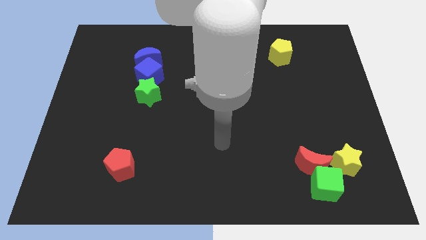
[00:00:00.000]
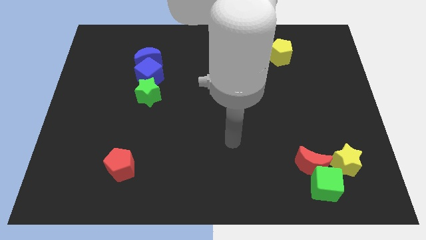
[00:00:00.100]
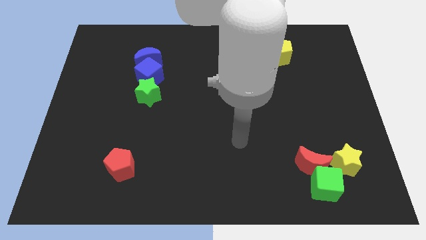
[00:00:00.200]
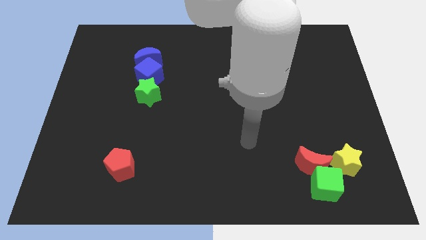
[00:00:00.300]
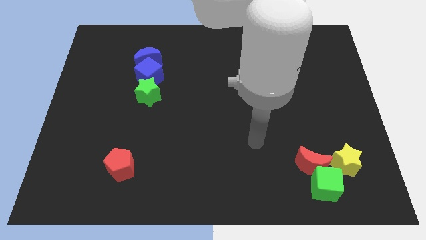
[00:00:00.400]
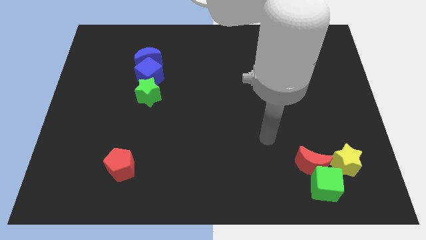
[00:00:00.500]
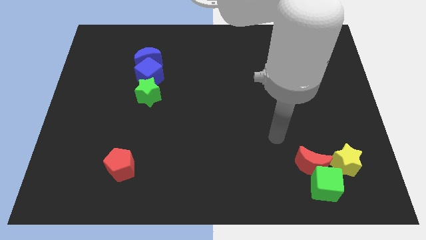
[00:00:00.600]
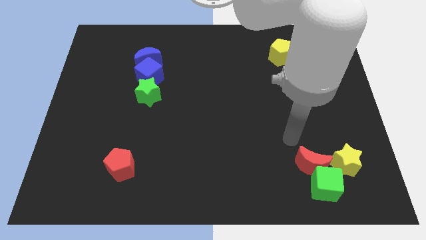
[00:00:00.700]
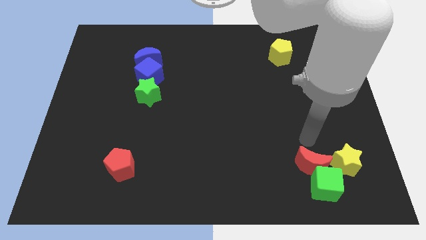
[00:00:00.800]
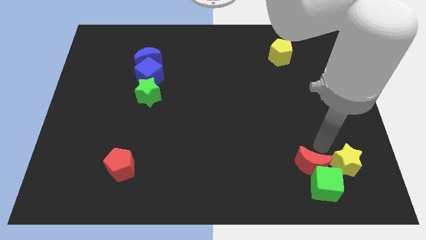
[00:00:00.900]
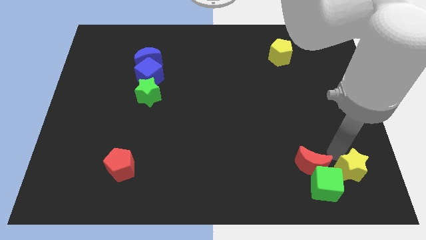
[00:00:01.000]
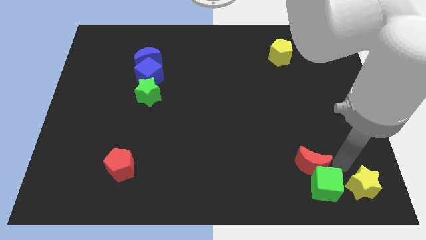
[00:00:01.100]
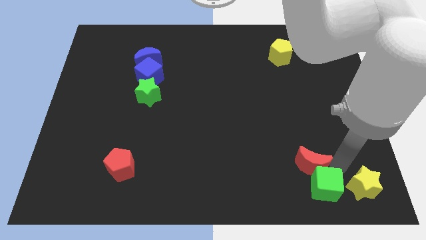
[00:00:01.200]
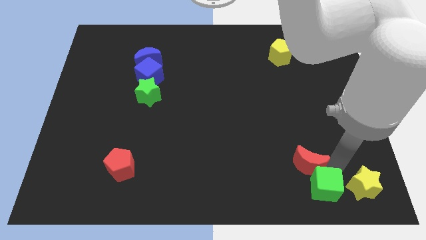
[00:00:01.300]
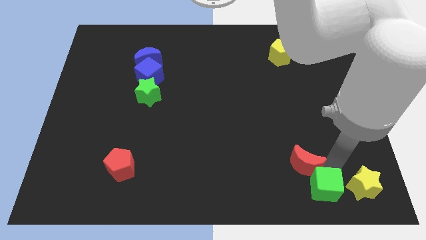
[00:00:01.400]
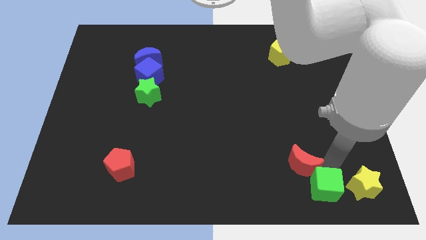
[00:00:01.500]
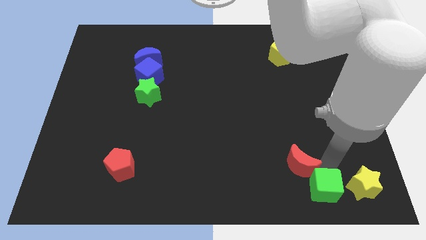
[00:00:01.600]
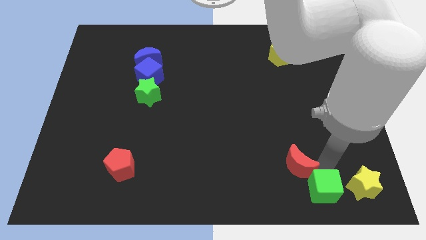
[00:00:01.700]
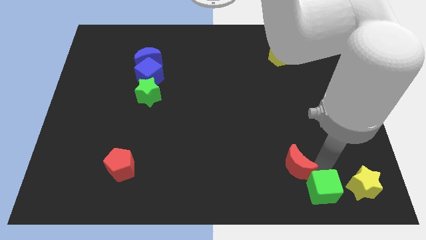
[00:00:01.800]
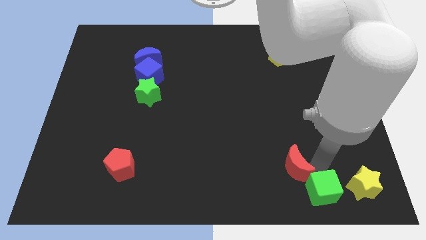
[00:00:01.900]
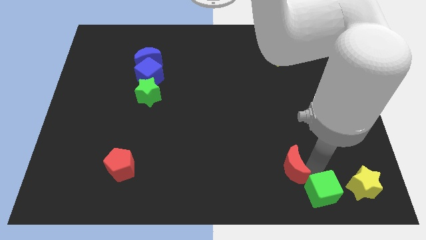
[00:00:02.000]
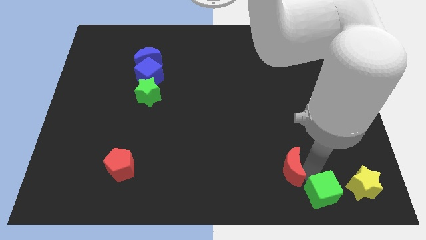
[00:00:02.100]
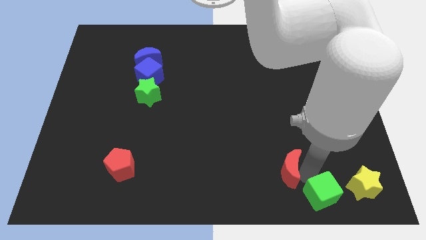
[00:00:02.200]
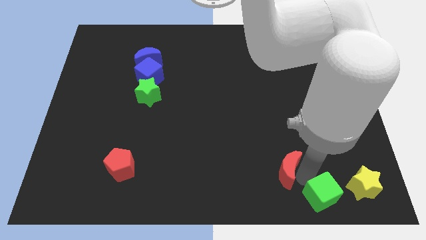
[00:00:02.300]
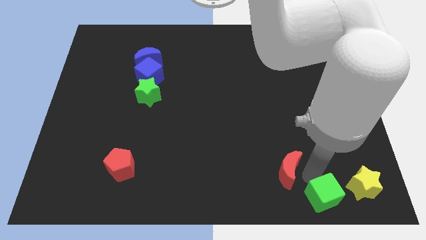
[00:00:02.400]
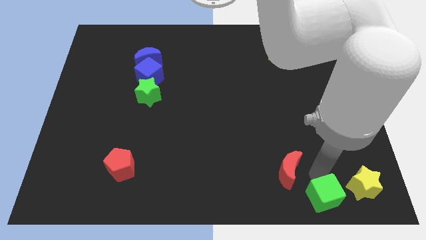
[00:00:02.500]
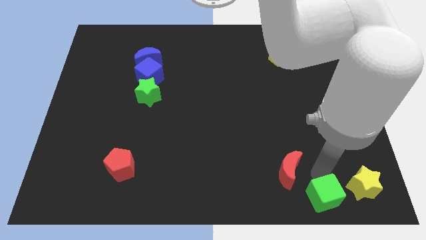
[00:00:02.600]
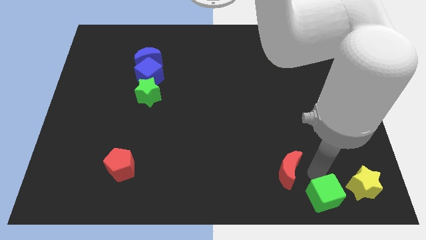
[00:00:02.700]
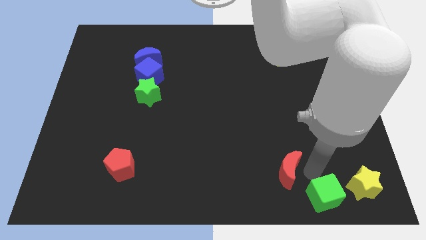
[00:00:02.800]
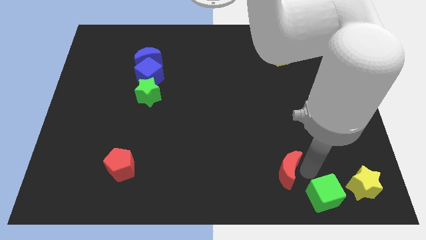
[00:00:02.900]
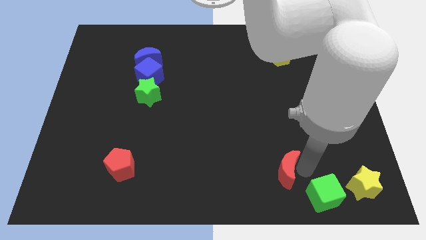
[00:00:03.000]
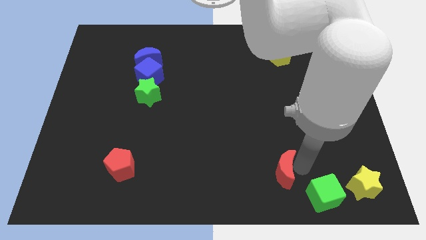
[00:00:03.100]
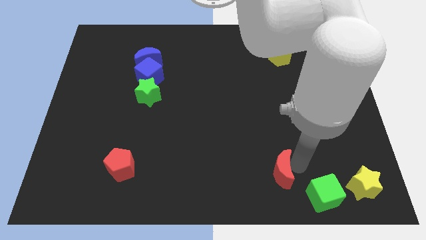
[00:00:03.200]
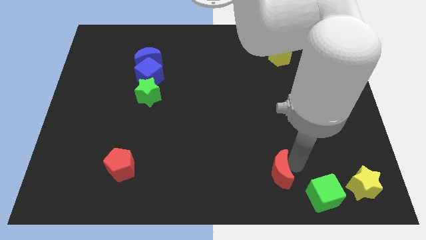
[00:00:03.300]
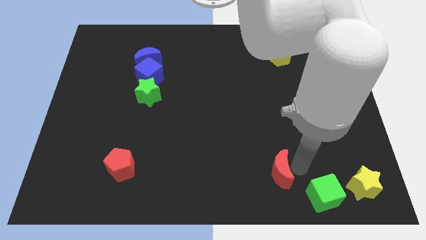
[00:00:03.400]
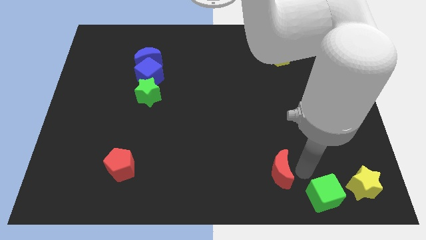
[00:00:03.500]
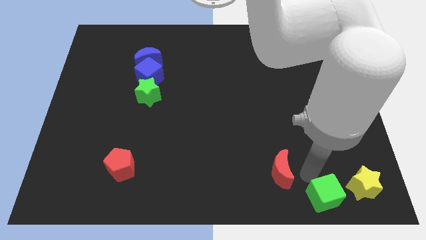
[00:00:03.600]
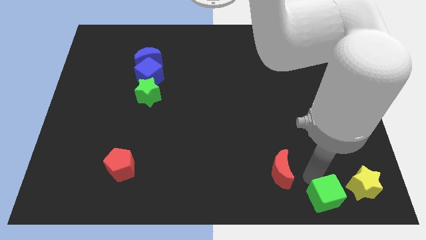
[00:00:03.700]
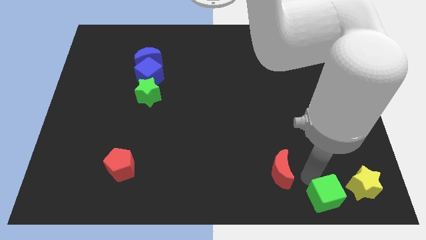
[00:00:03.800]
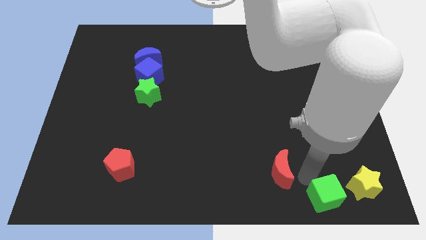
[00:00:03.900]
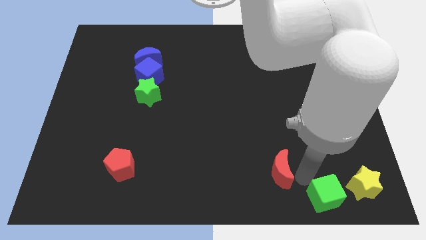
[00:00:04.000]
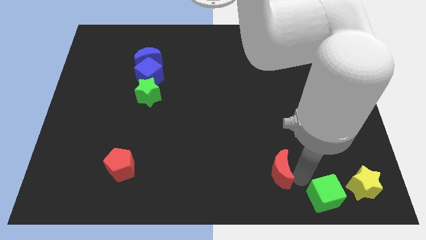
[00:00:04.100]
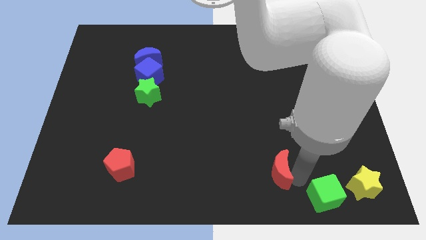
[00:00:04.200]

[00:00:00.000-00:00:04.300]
slide the red moon somewhat left

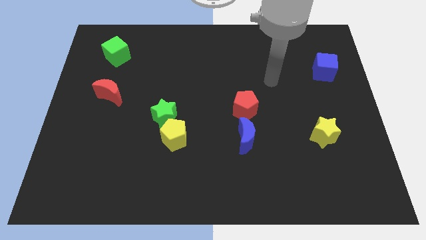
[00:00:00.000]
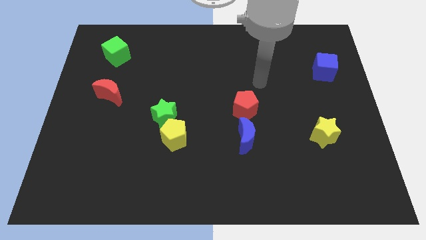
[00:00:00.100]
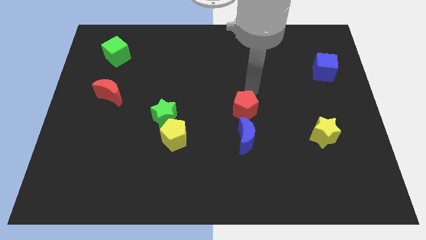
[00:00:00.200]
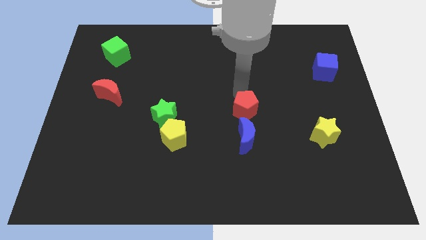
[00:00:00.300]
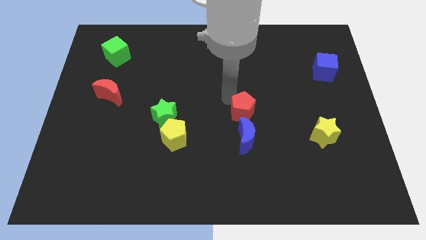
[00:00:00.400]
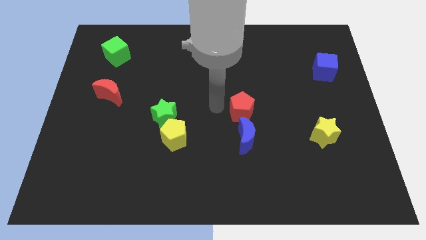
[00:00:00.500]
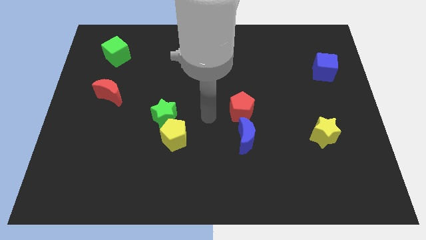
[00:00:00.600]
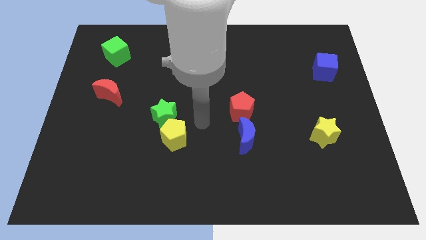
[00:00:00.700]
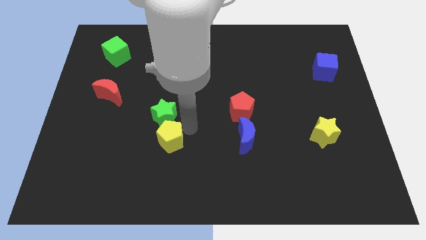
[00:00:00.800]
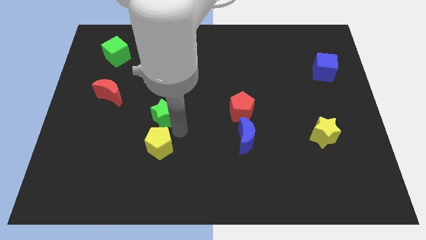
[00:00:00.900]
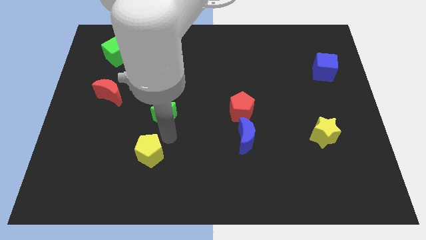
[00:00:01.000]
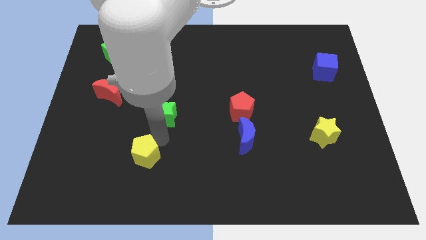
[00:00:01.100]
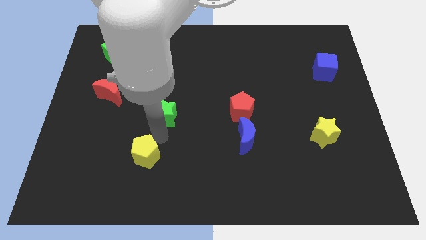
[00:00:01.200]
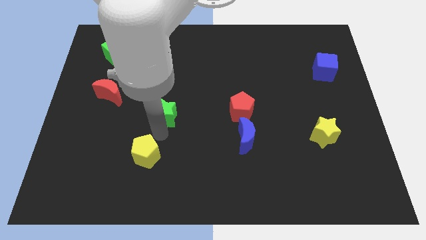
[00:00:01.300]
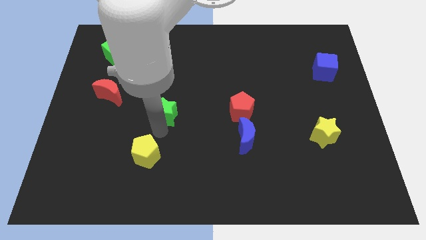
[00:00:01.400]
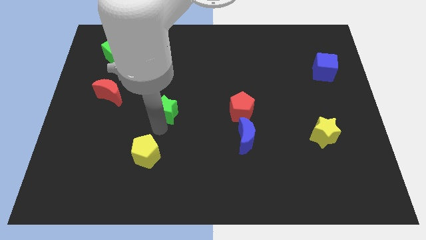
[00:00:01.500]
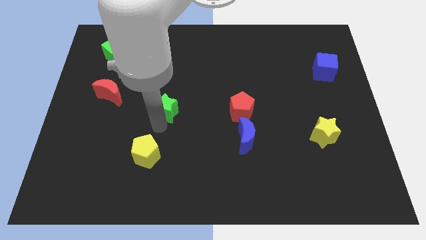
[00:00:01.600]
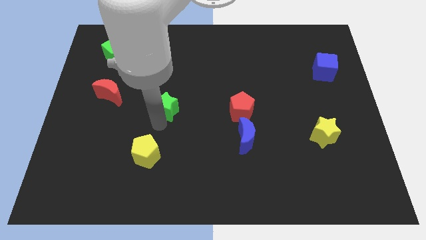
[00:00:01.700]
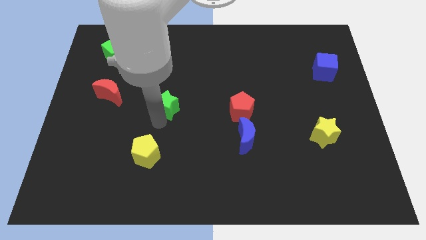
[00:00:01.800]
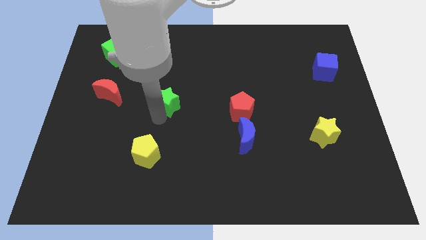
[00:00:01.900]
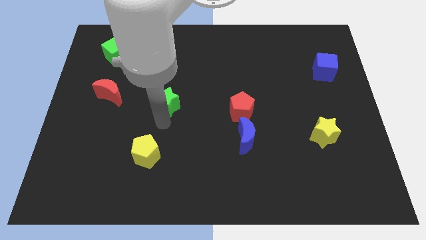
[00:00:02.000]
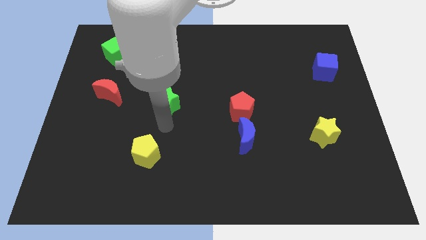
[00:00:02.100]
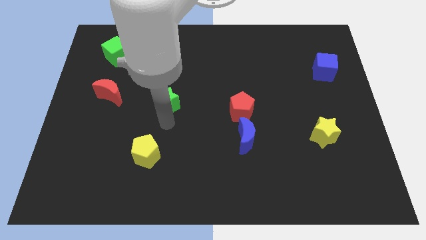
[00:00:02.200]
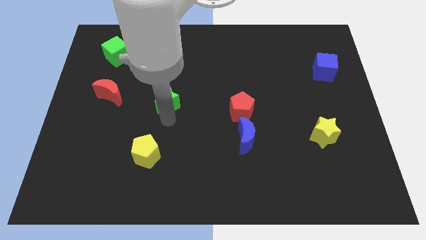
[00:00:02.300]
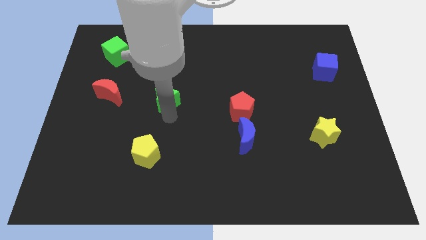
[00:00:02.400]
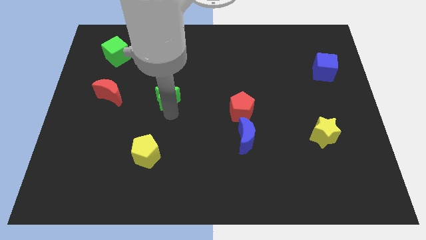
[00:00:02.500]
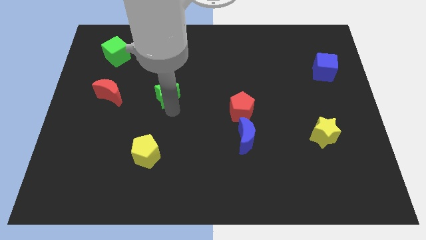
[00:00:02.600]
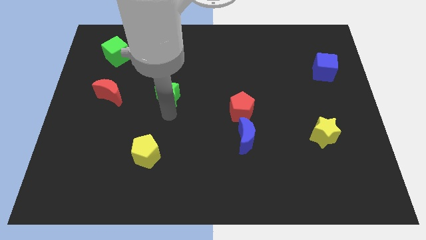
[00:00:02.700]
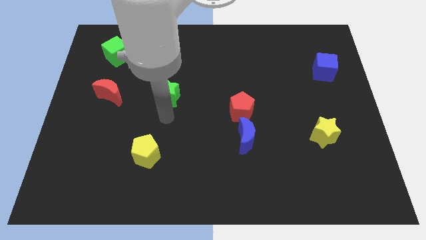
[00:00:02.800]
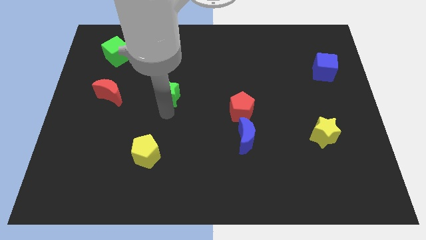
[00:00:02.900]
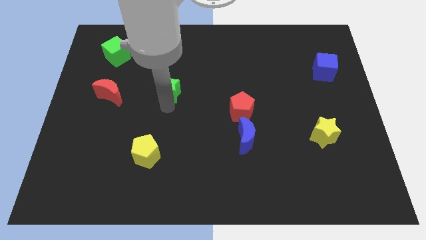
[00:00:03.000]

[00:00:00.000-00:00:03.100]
move the green star slightly upwards

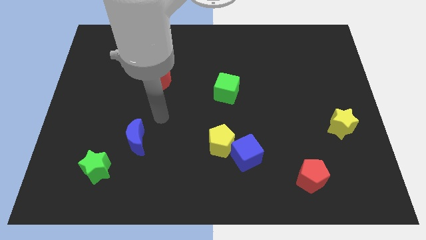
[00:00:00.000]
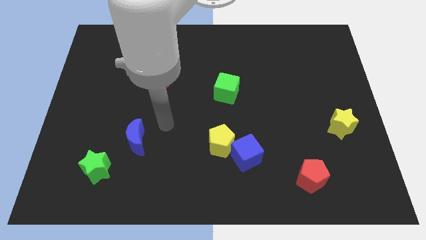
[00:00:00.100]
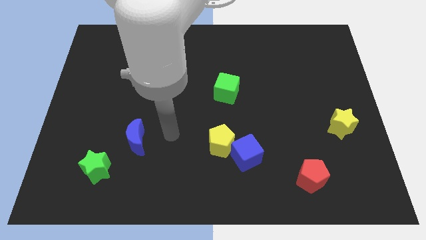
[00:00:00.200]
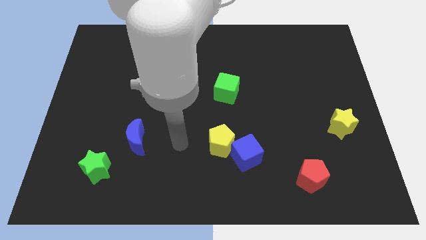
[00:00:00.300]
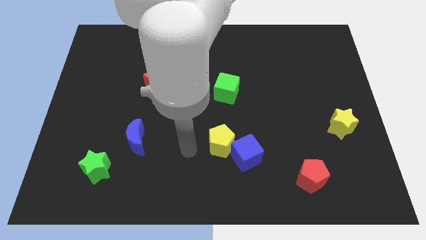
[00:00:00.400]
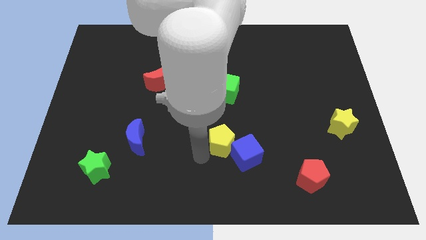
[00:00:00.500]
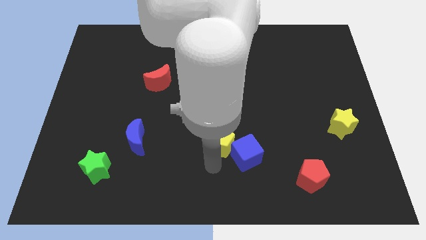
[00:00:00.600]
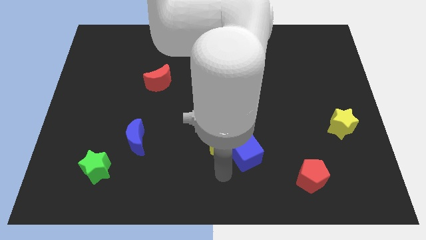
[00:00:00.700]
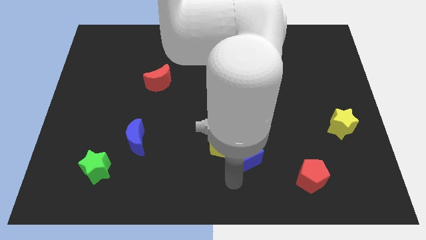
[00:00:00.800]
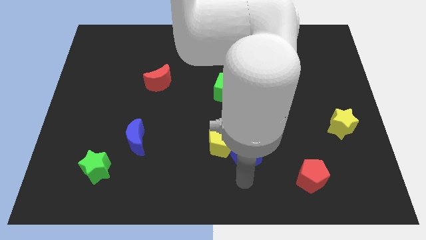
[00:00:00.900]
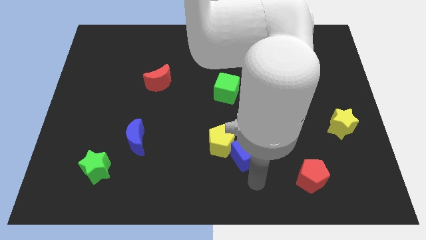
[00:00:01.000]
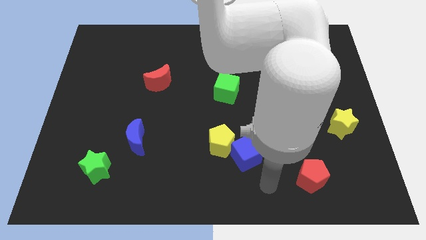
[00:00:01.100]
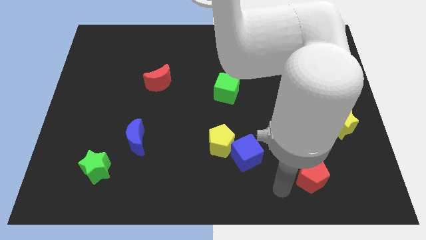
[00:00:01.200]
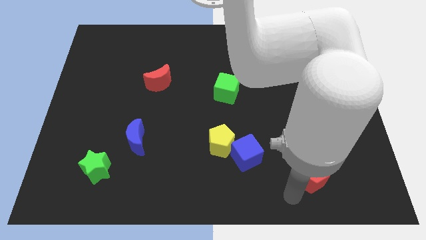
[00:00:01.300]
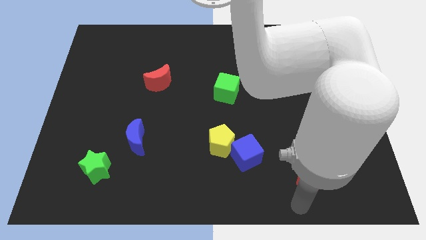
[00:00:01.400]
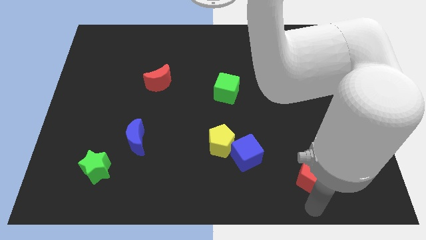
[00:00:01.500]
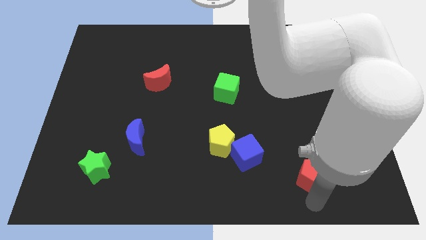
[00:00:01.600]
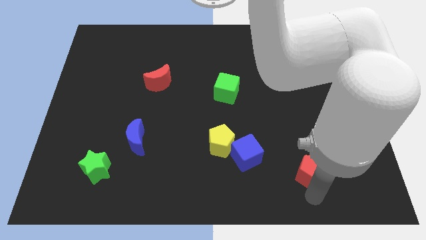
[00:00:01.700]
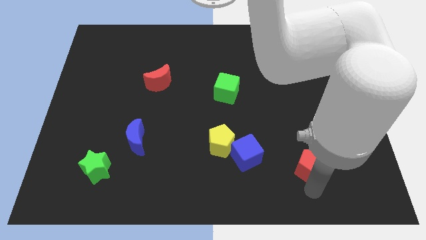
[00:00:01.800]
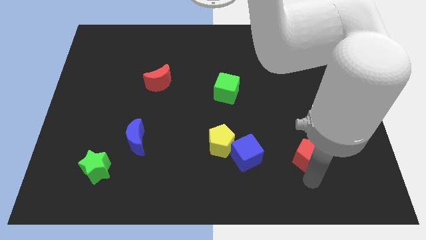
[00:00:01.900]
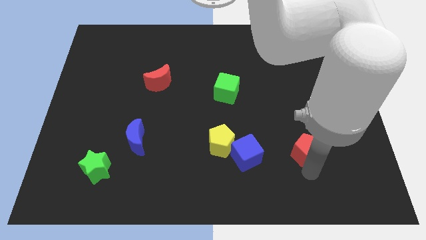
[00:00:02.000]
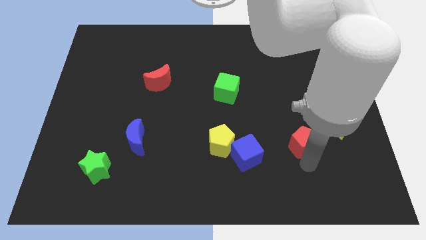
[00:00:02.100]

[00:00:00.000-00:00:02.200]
push the red pentagon a bit upwards
